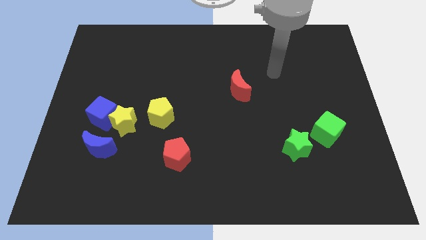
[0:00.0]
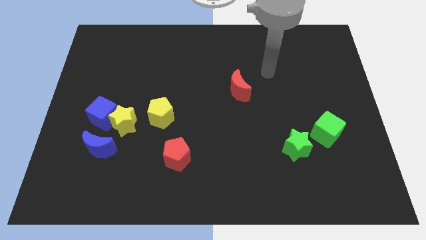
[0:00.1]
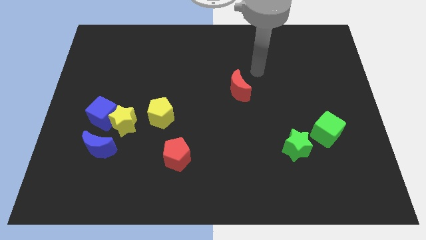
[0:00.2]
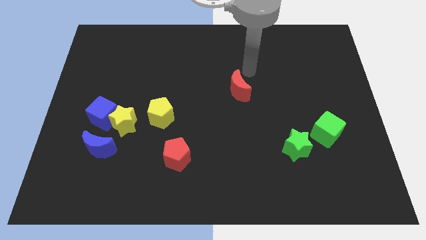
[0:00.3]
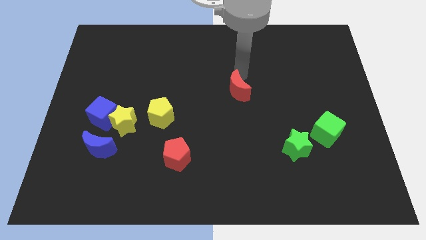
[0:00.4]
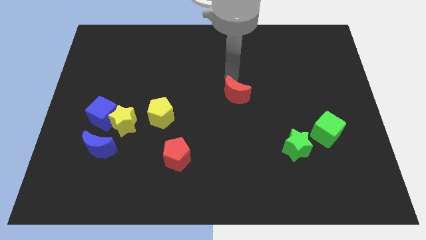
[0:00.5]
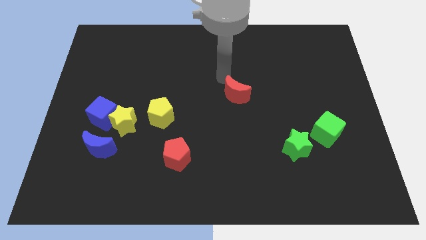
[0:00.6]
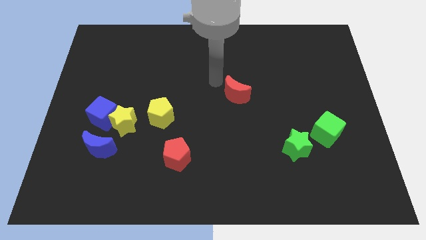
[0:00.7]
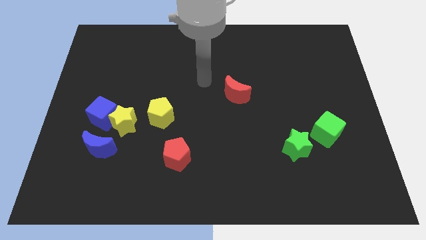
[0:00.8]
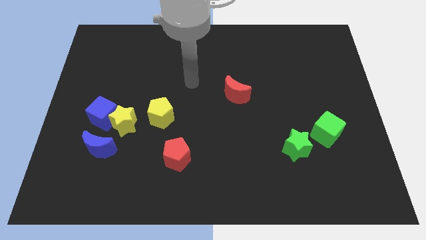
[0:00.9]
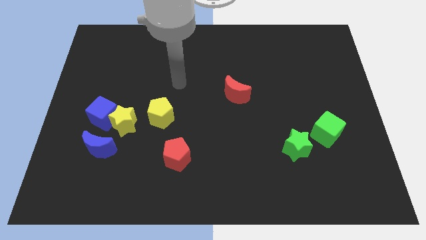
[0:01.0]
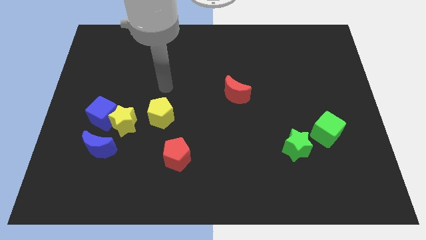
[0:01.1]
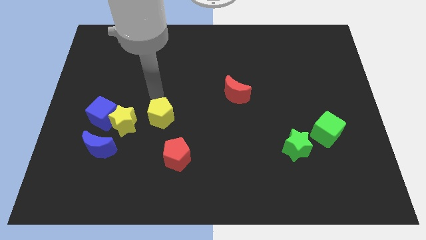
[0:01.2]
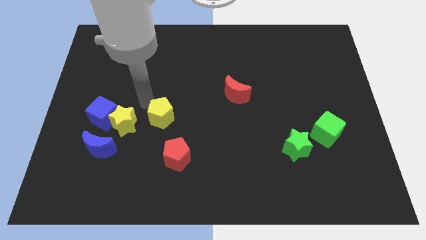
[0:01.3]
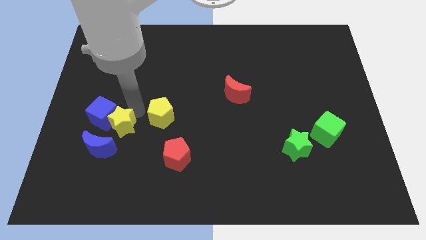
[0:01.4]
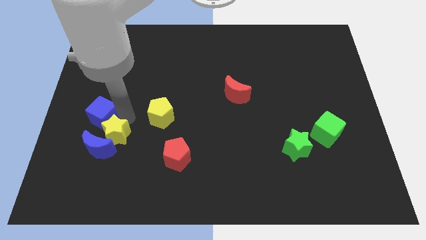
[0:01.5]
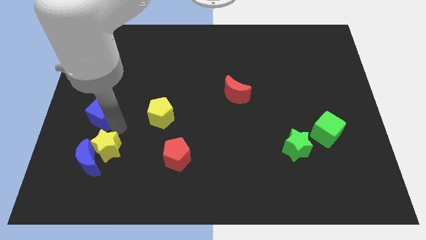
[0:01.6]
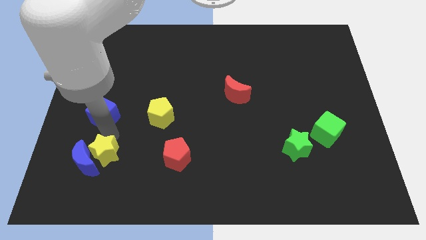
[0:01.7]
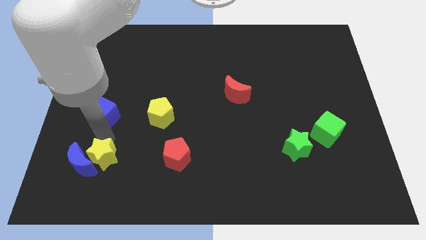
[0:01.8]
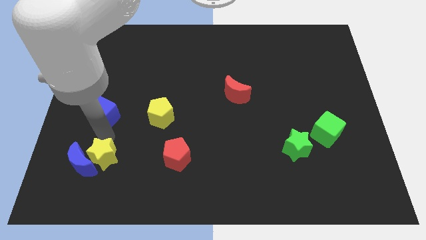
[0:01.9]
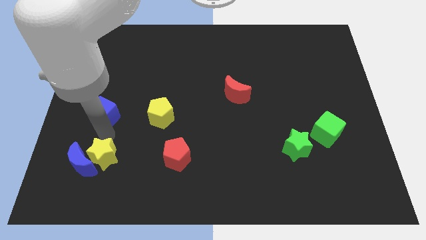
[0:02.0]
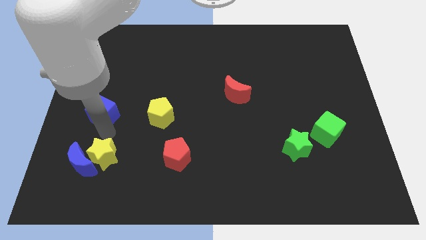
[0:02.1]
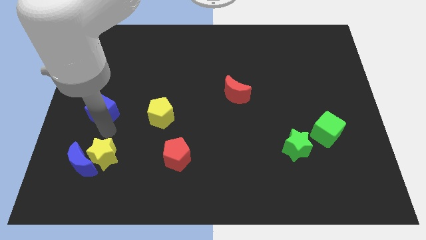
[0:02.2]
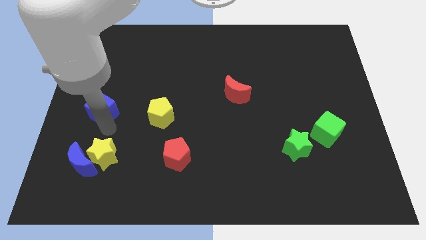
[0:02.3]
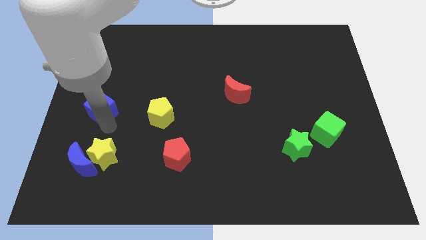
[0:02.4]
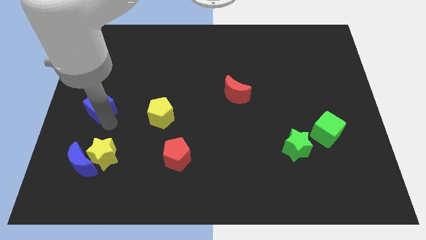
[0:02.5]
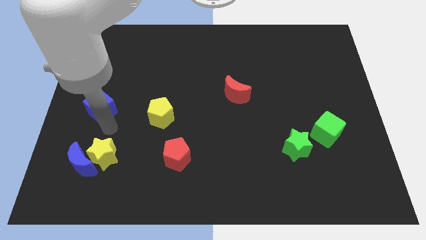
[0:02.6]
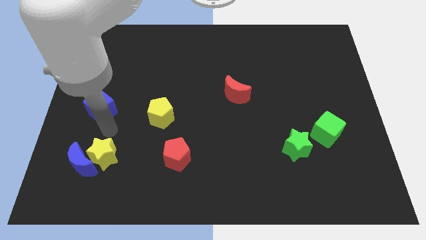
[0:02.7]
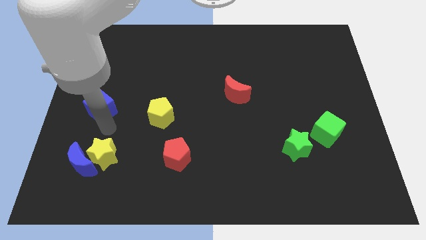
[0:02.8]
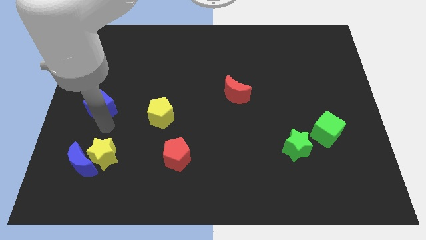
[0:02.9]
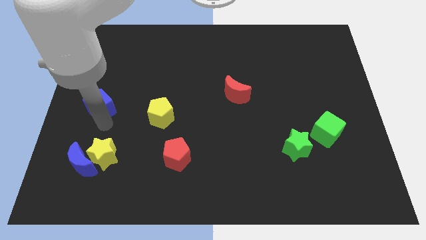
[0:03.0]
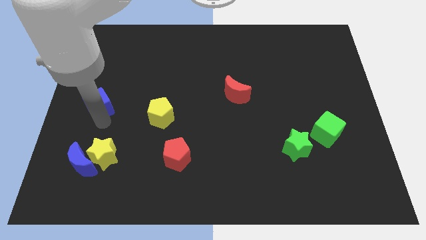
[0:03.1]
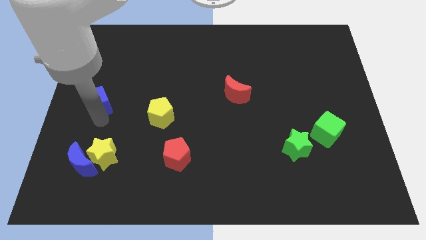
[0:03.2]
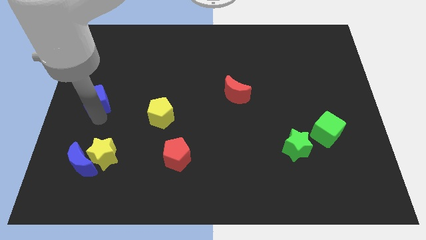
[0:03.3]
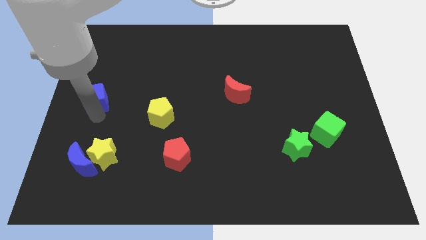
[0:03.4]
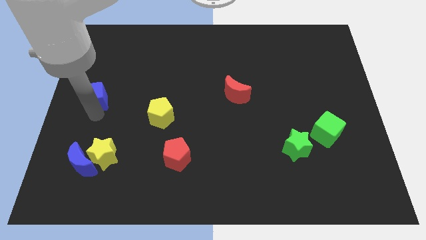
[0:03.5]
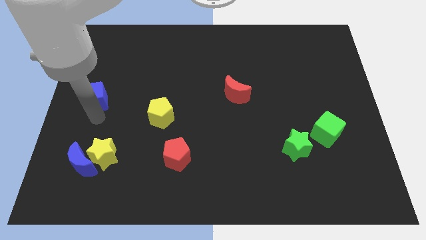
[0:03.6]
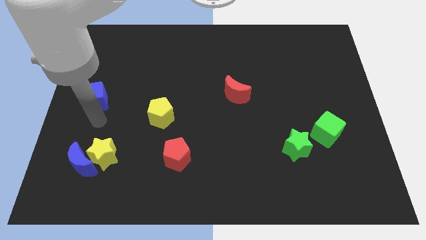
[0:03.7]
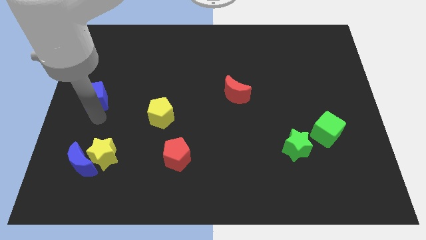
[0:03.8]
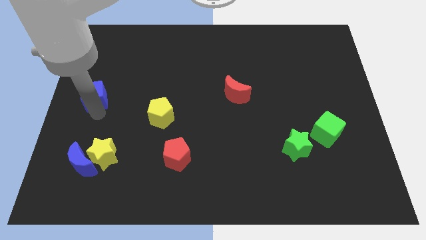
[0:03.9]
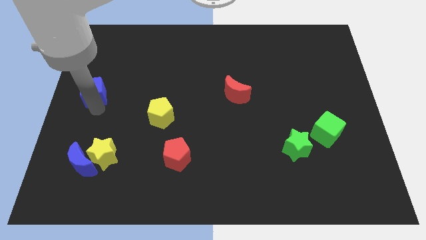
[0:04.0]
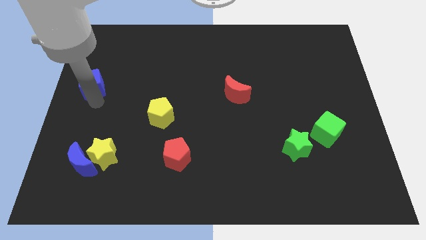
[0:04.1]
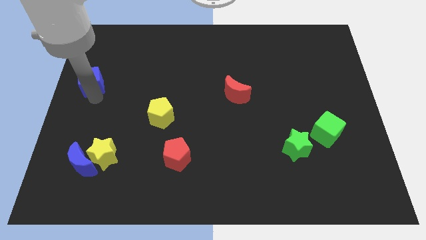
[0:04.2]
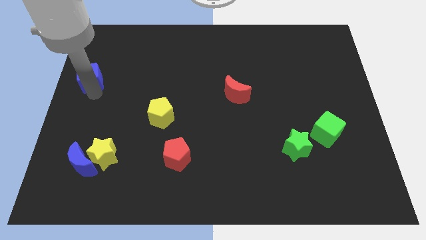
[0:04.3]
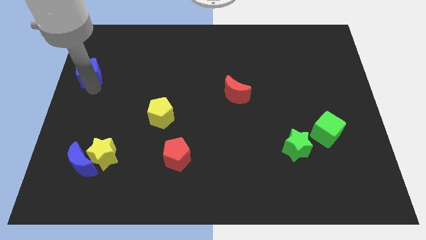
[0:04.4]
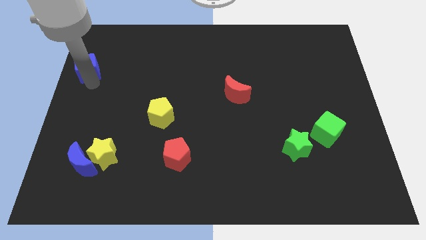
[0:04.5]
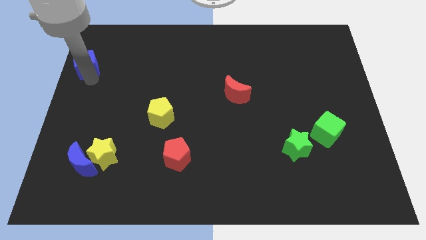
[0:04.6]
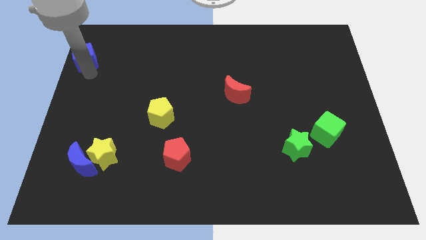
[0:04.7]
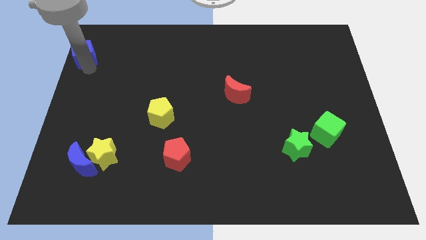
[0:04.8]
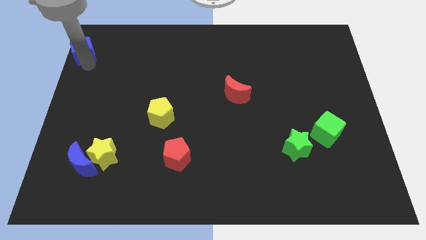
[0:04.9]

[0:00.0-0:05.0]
move the blue cube to the top left

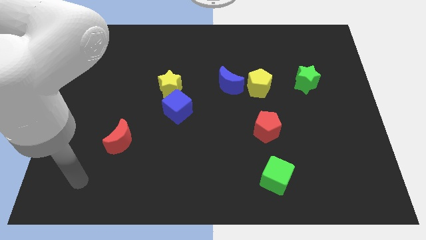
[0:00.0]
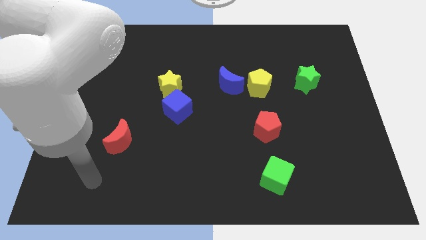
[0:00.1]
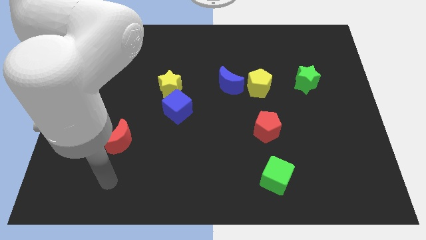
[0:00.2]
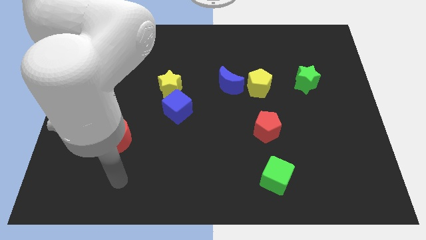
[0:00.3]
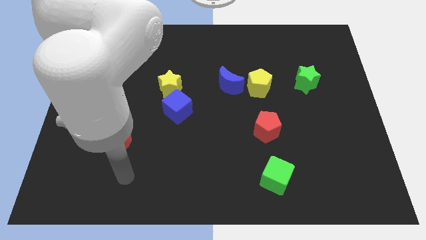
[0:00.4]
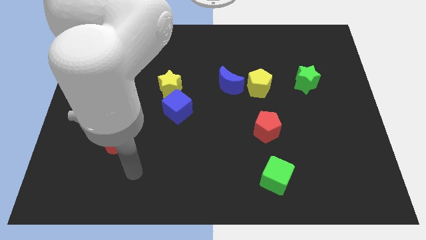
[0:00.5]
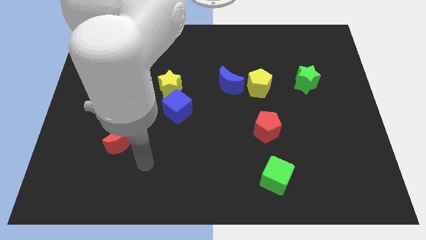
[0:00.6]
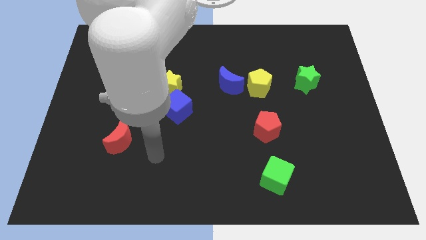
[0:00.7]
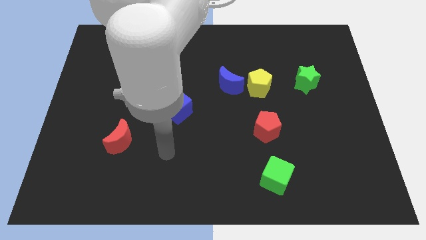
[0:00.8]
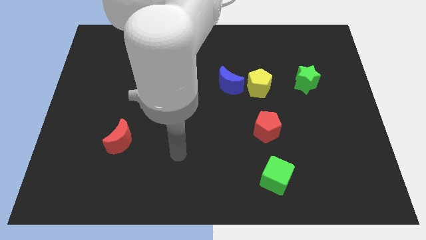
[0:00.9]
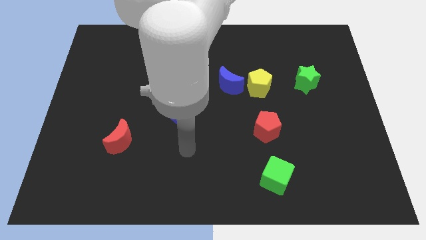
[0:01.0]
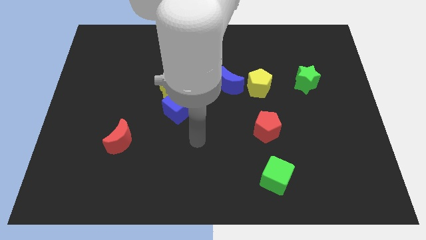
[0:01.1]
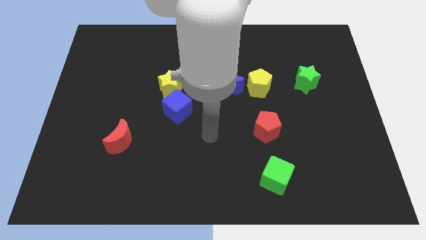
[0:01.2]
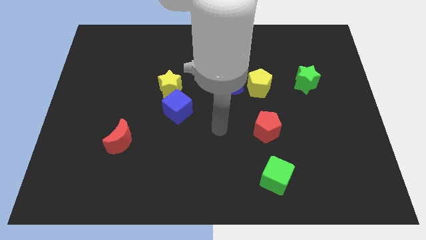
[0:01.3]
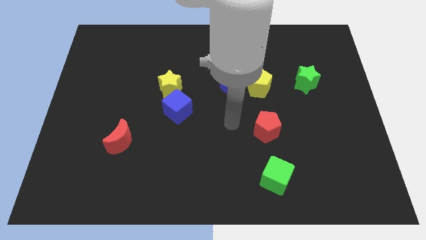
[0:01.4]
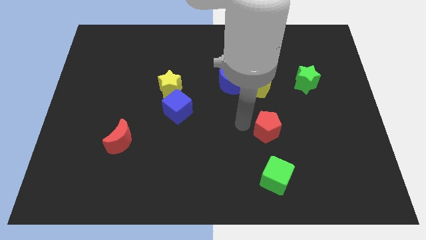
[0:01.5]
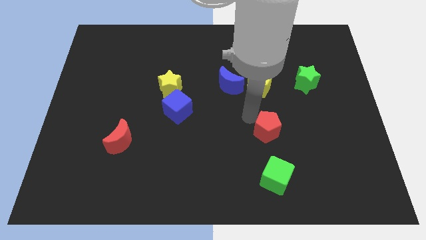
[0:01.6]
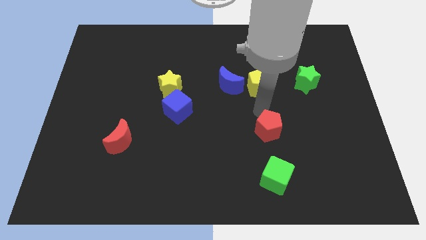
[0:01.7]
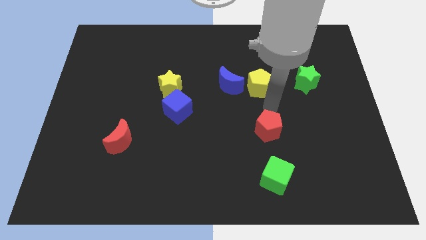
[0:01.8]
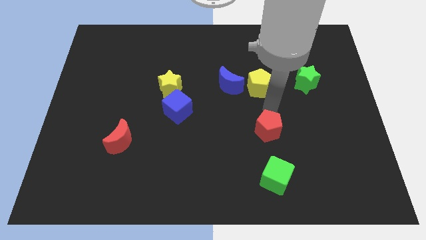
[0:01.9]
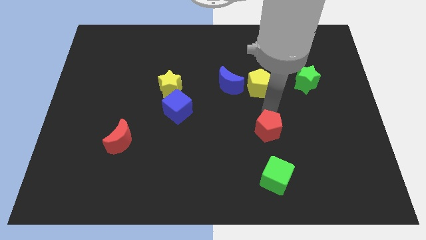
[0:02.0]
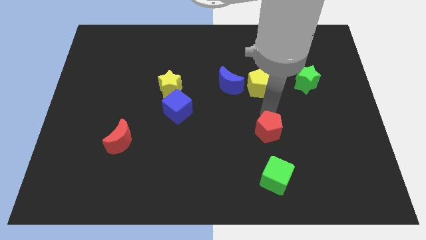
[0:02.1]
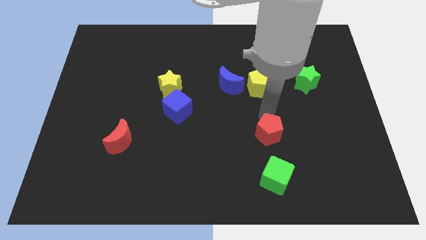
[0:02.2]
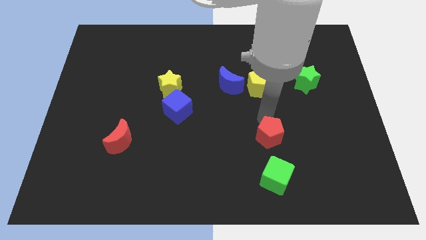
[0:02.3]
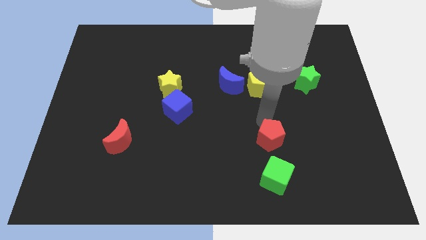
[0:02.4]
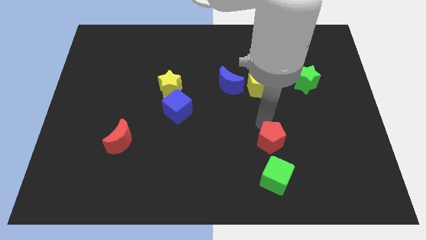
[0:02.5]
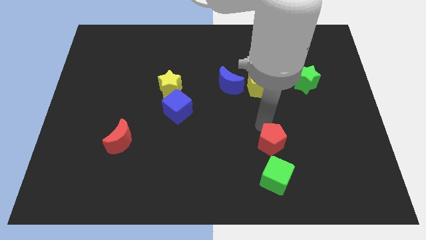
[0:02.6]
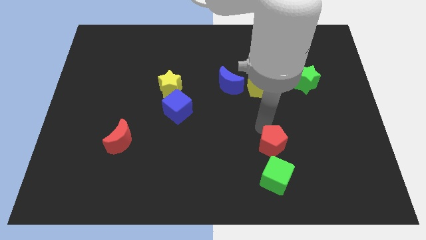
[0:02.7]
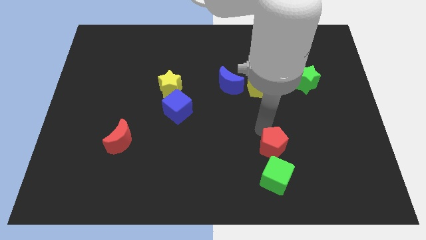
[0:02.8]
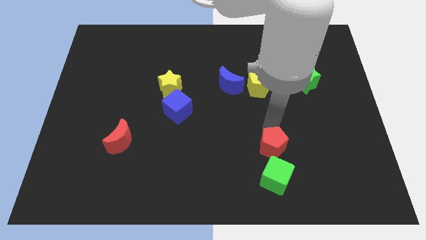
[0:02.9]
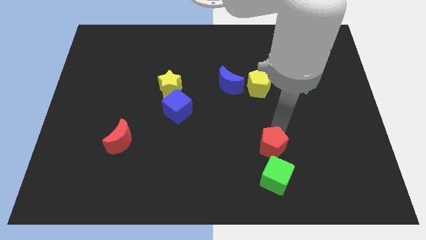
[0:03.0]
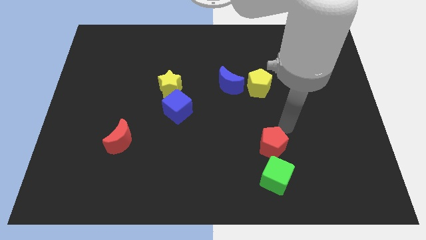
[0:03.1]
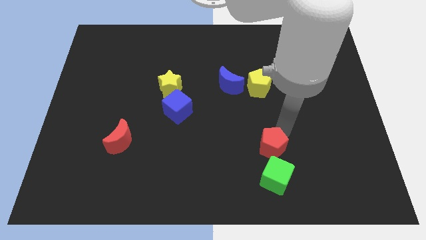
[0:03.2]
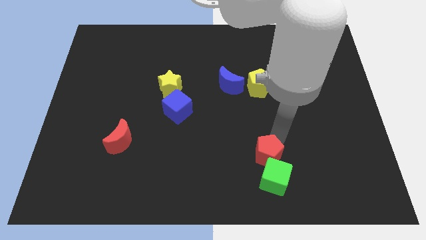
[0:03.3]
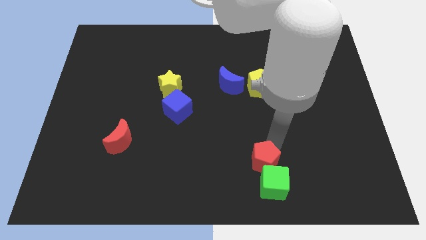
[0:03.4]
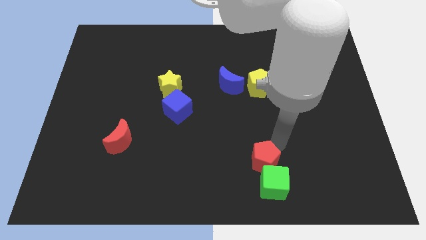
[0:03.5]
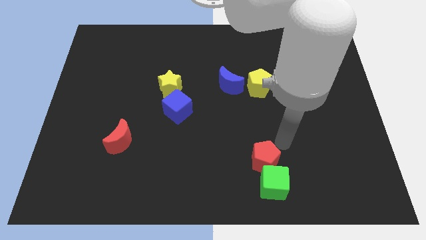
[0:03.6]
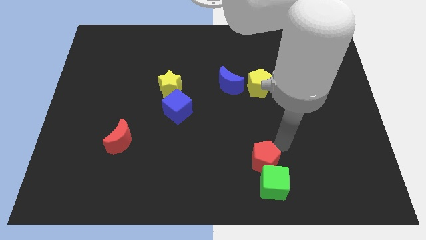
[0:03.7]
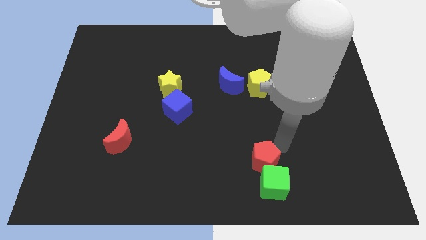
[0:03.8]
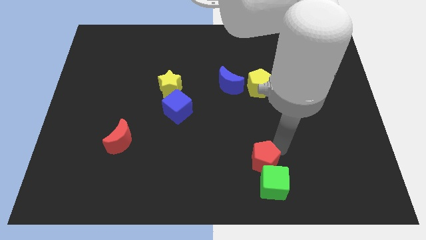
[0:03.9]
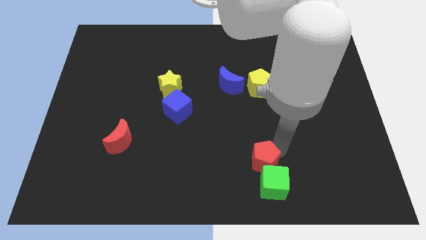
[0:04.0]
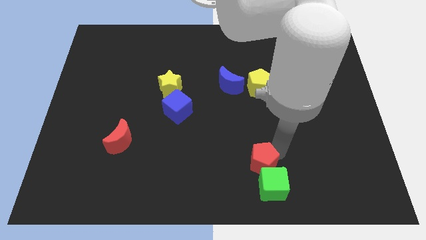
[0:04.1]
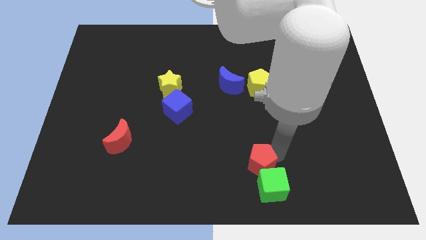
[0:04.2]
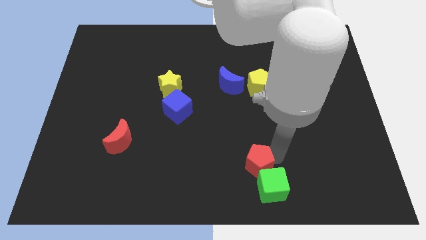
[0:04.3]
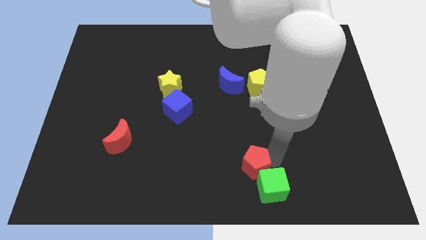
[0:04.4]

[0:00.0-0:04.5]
move the red pentagon to the bottom side
